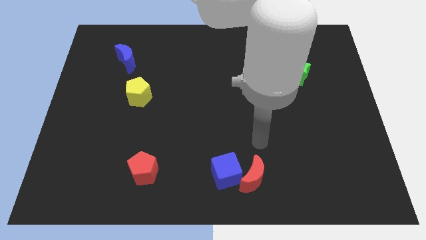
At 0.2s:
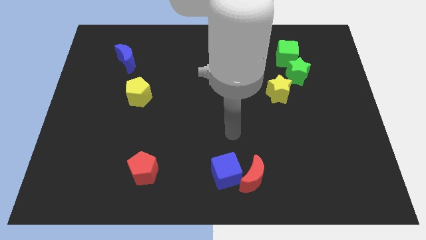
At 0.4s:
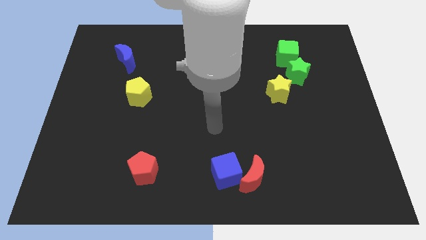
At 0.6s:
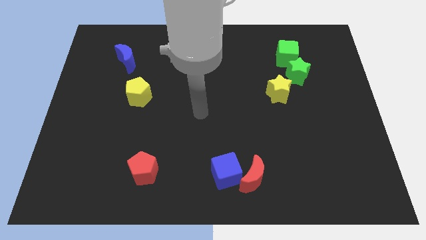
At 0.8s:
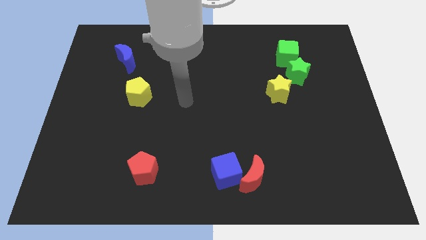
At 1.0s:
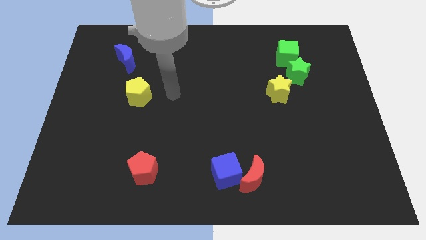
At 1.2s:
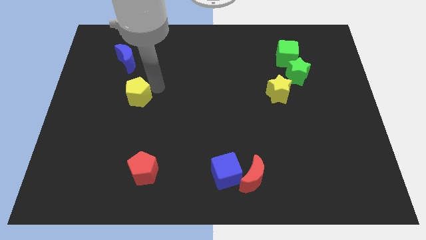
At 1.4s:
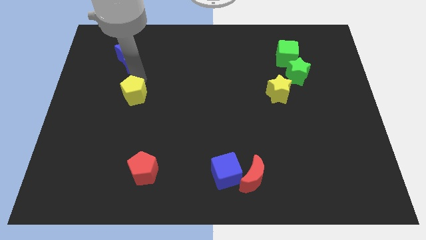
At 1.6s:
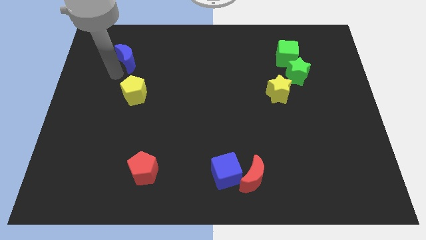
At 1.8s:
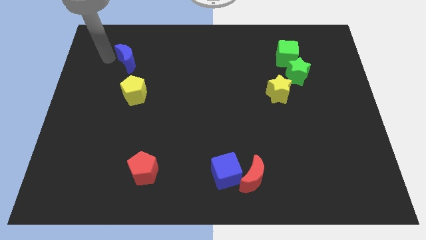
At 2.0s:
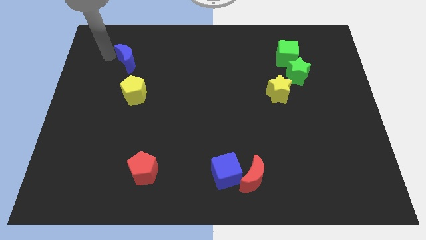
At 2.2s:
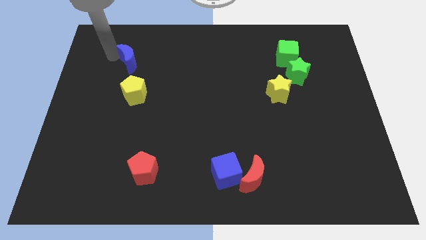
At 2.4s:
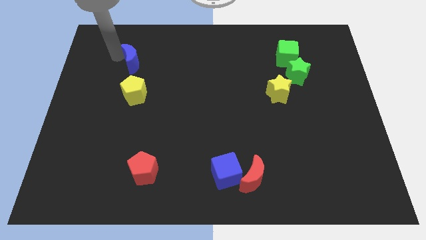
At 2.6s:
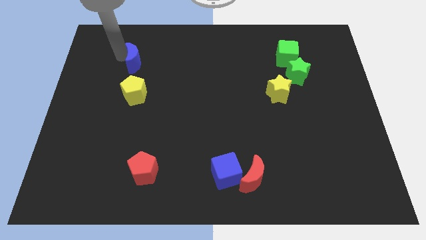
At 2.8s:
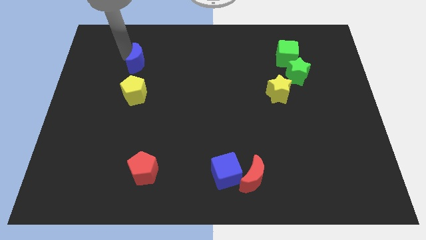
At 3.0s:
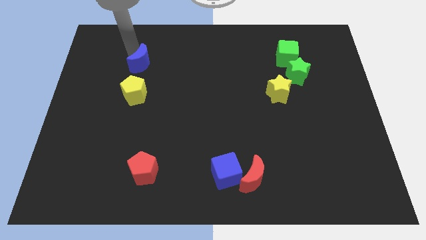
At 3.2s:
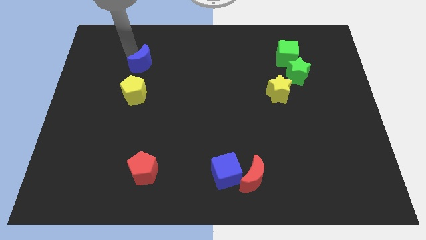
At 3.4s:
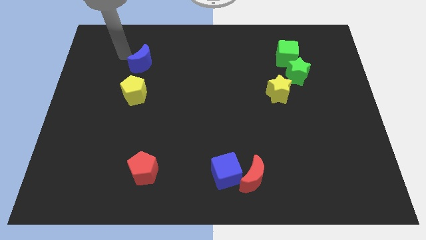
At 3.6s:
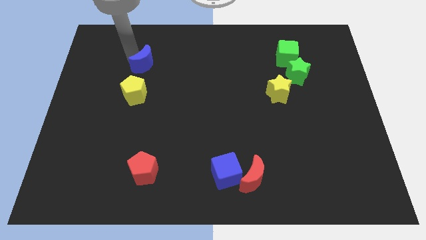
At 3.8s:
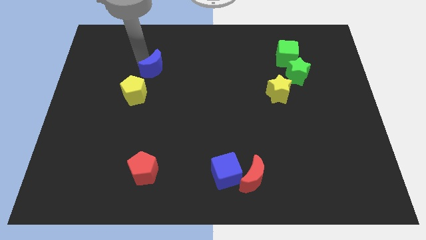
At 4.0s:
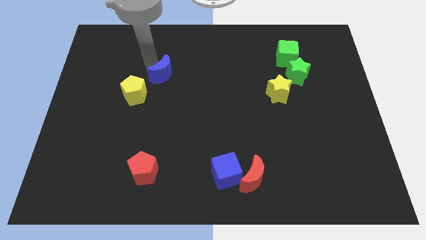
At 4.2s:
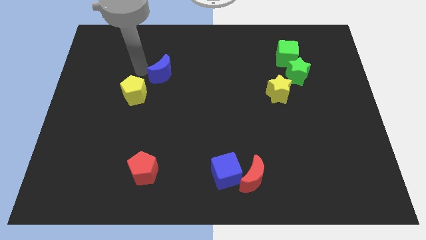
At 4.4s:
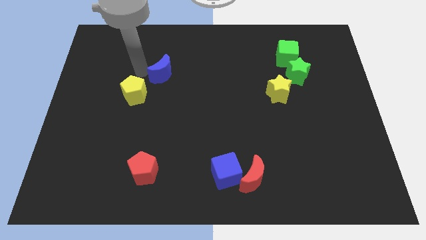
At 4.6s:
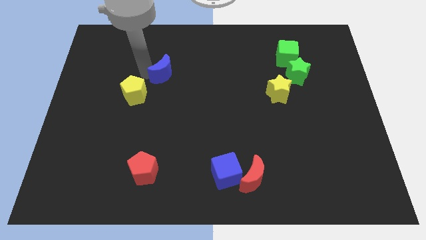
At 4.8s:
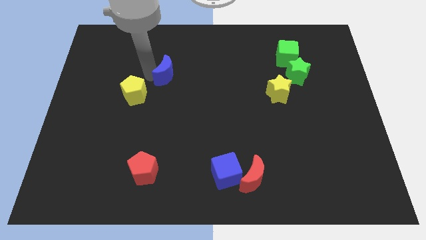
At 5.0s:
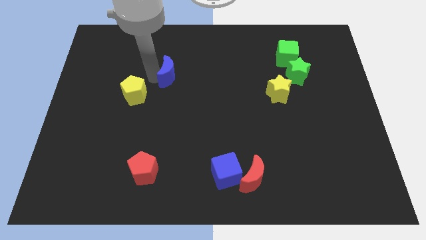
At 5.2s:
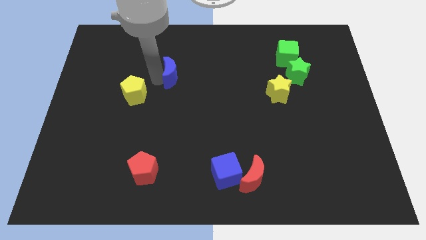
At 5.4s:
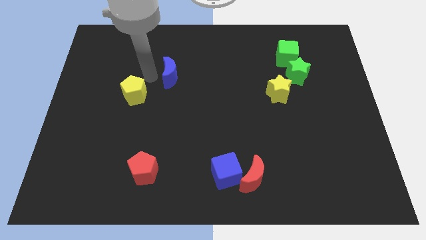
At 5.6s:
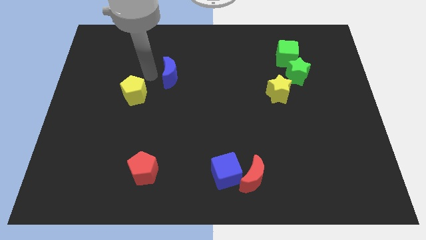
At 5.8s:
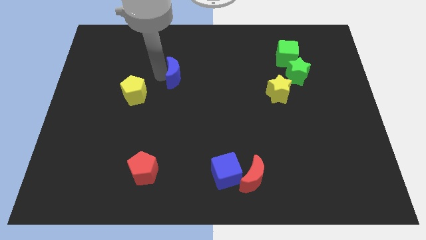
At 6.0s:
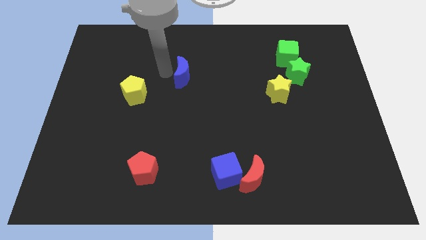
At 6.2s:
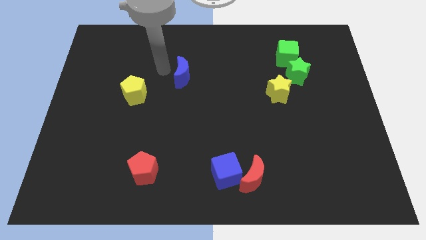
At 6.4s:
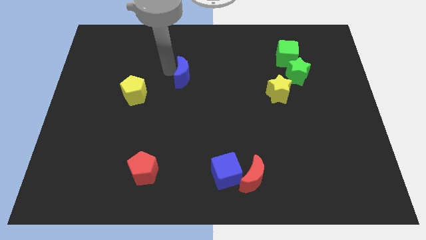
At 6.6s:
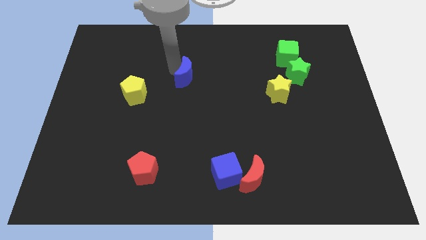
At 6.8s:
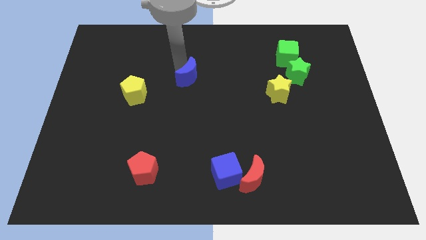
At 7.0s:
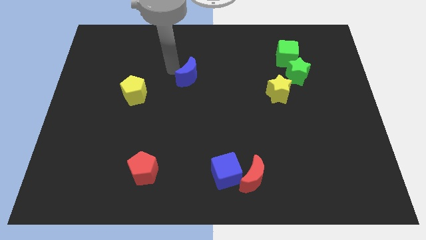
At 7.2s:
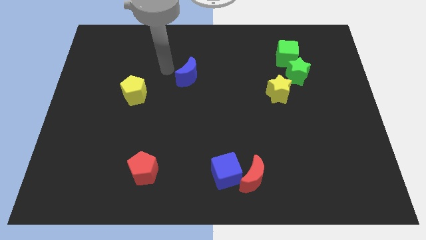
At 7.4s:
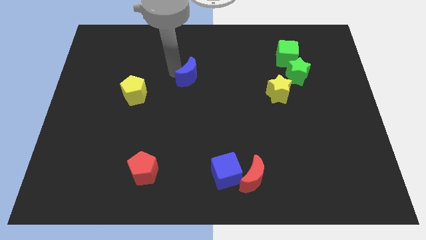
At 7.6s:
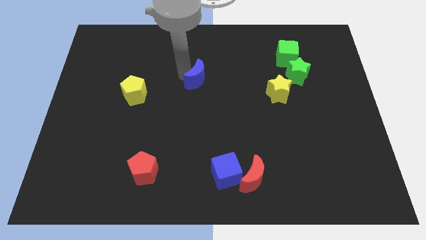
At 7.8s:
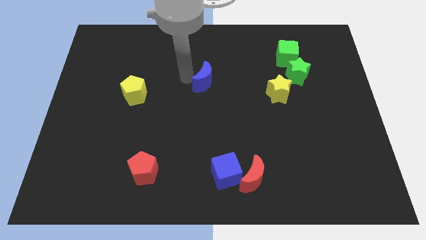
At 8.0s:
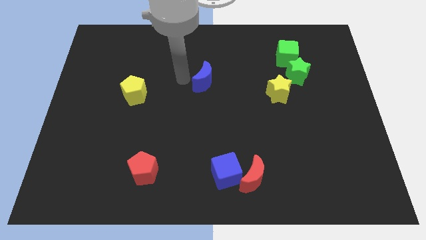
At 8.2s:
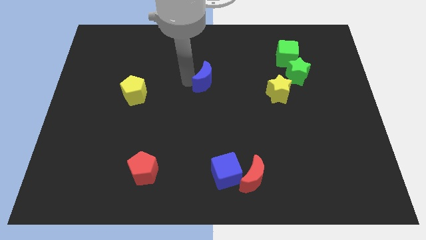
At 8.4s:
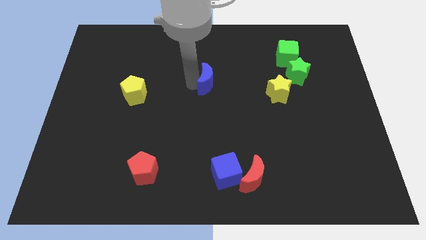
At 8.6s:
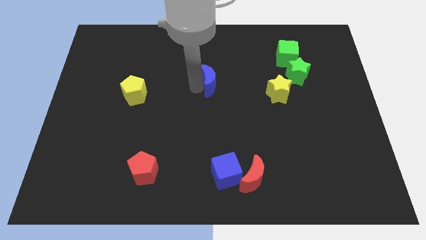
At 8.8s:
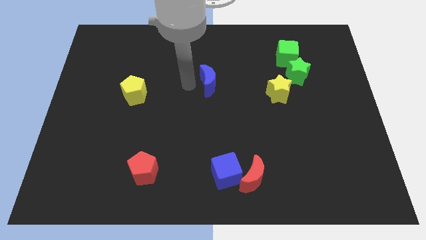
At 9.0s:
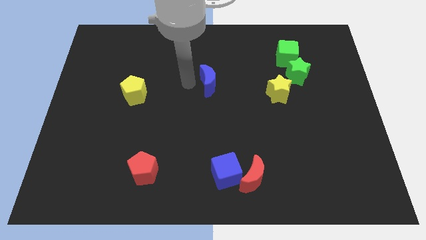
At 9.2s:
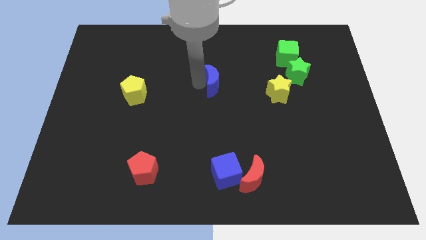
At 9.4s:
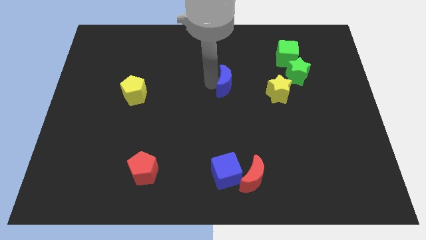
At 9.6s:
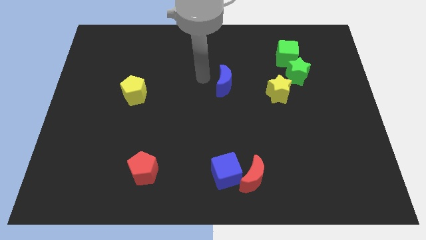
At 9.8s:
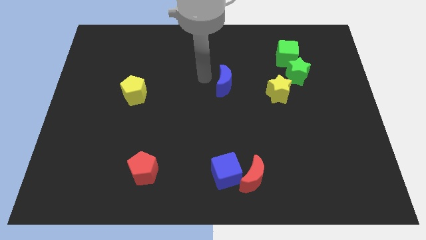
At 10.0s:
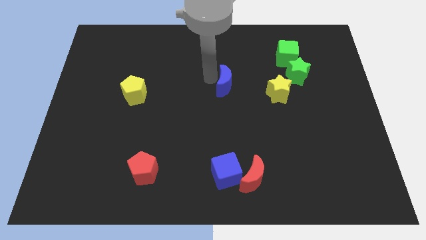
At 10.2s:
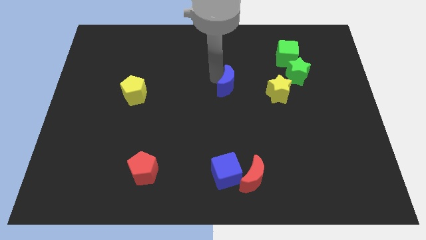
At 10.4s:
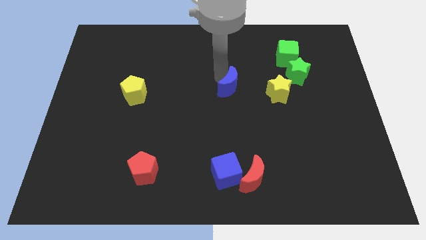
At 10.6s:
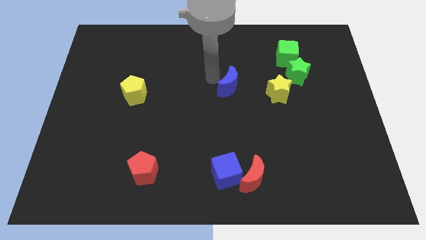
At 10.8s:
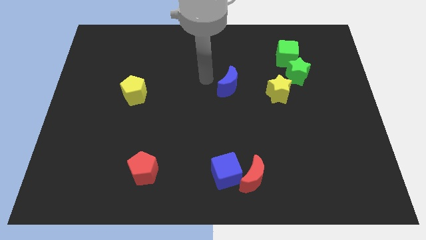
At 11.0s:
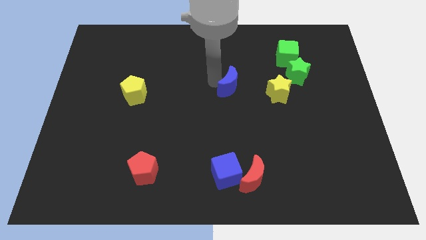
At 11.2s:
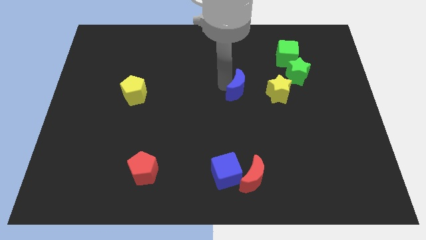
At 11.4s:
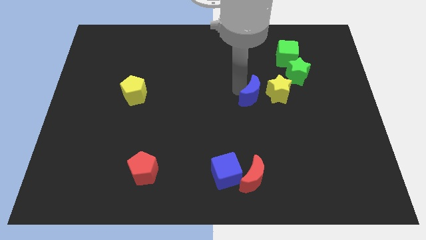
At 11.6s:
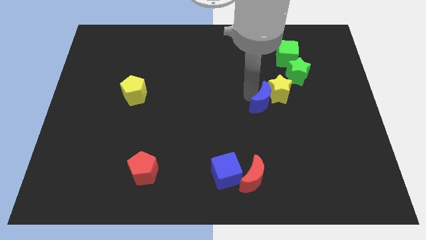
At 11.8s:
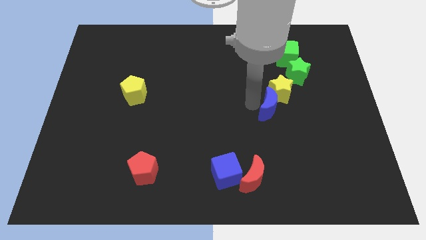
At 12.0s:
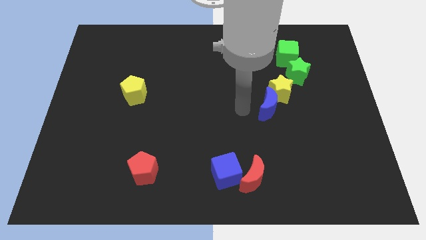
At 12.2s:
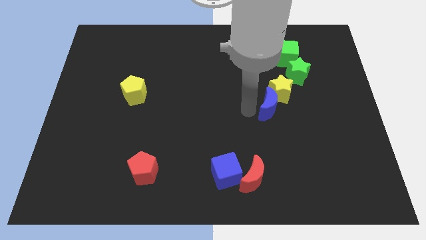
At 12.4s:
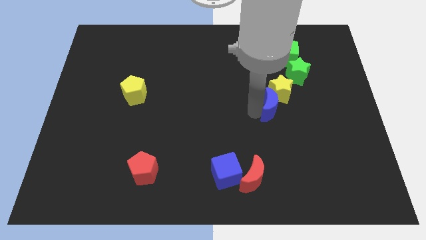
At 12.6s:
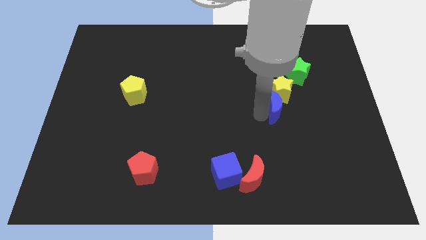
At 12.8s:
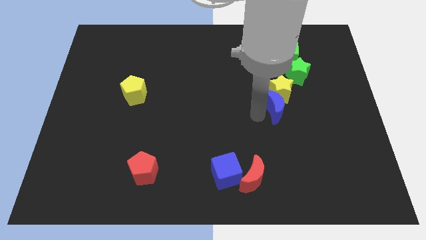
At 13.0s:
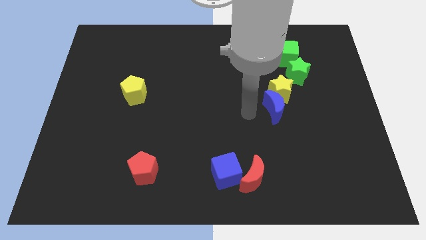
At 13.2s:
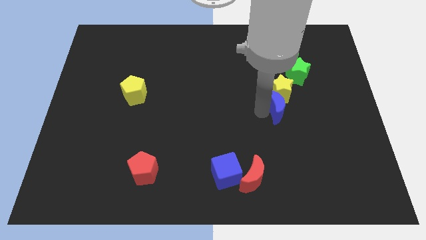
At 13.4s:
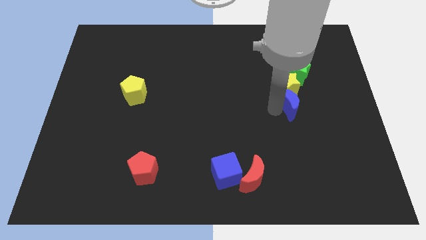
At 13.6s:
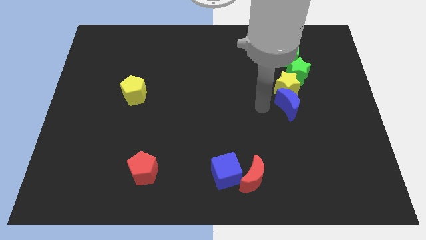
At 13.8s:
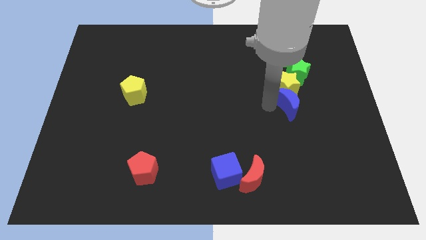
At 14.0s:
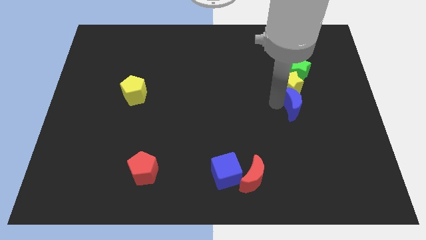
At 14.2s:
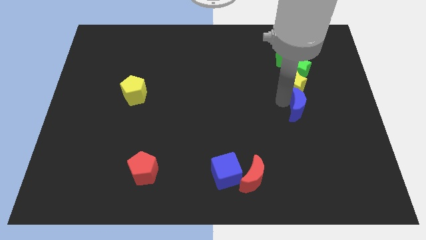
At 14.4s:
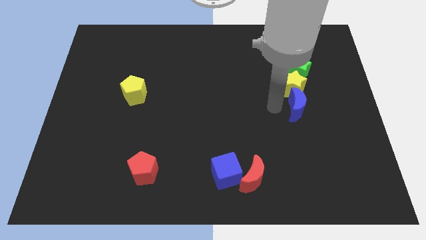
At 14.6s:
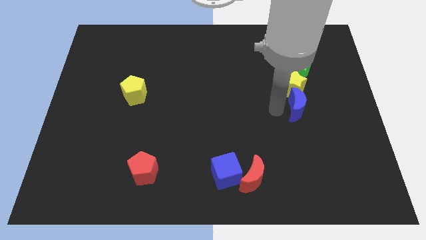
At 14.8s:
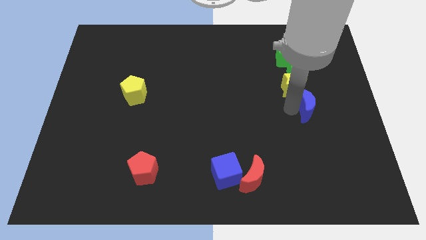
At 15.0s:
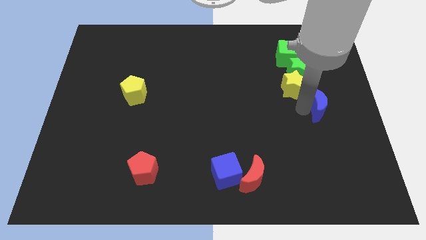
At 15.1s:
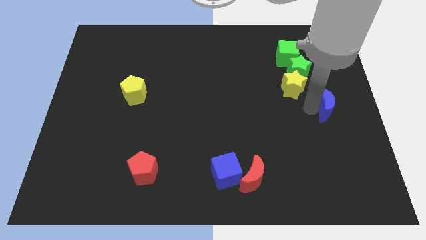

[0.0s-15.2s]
push the blue moon to the center right
